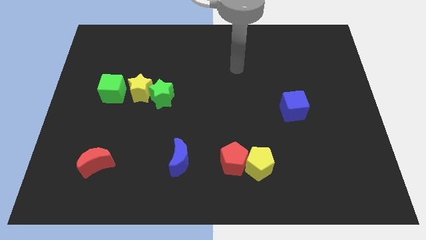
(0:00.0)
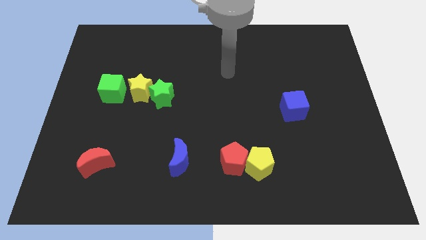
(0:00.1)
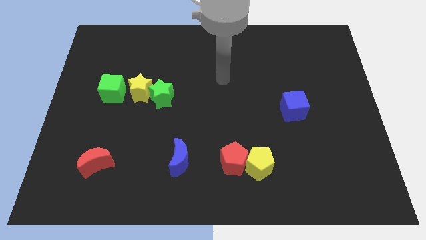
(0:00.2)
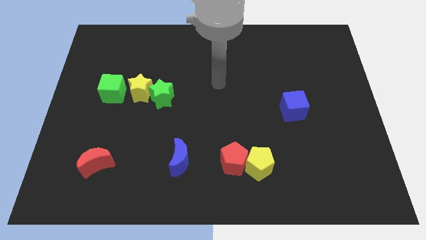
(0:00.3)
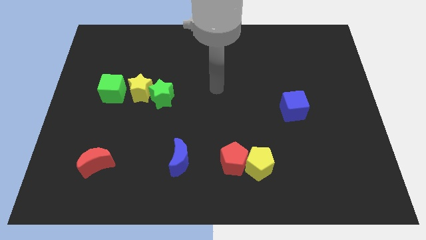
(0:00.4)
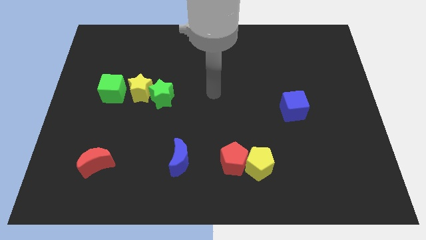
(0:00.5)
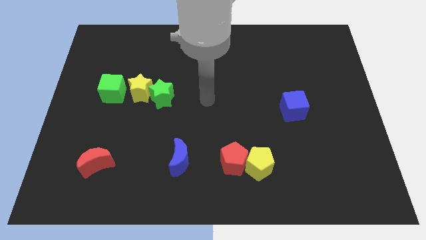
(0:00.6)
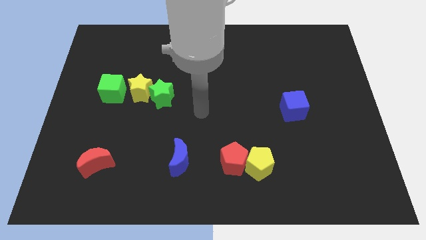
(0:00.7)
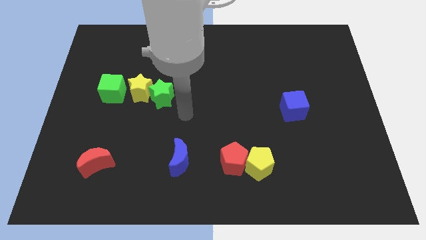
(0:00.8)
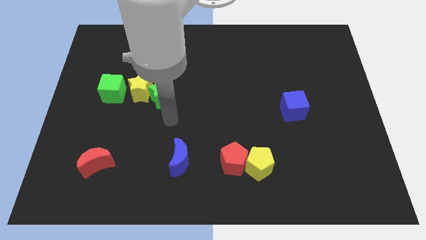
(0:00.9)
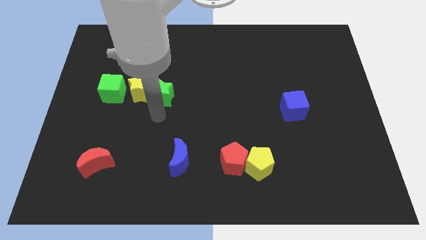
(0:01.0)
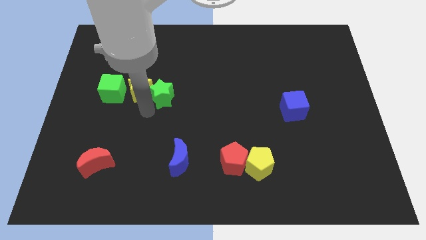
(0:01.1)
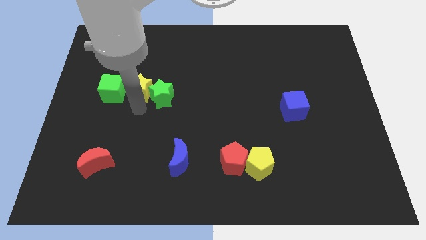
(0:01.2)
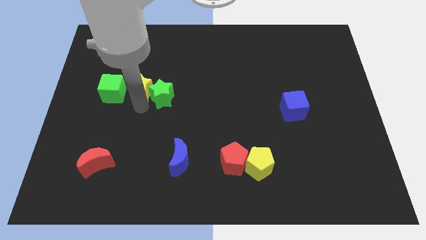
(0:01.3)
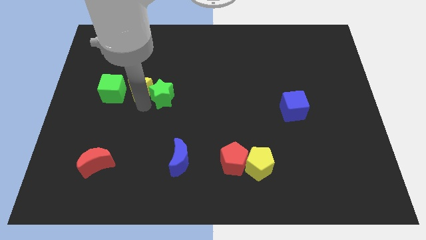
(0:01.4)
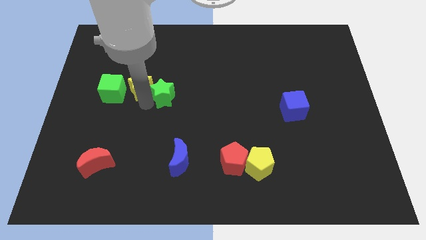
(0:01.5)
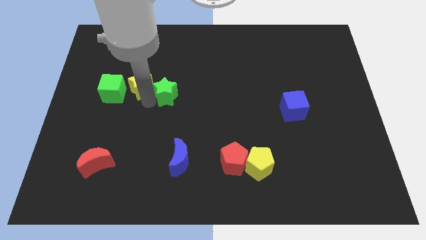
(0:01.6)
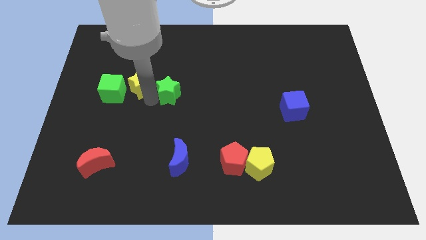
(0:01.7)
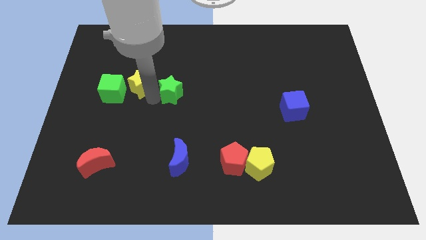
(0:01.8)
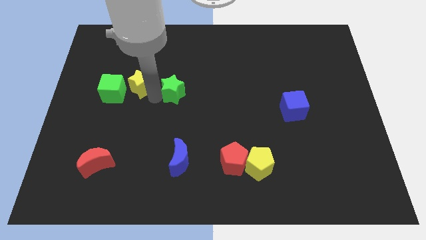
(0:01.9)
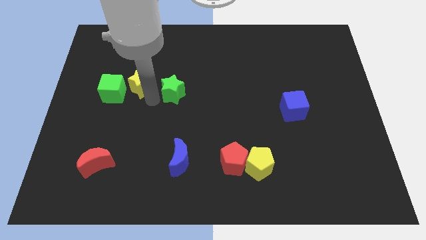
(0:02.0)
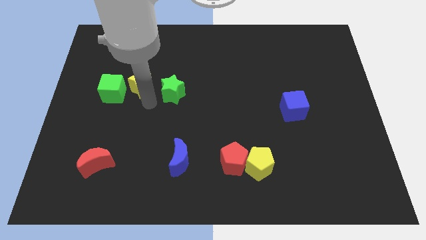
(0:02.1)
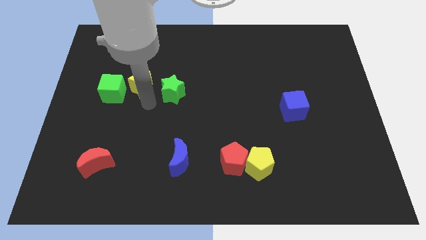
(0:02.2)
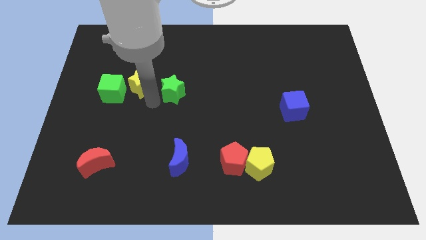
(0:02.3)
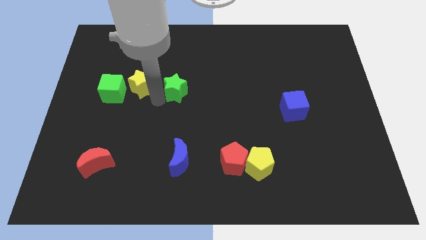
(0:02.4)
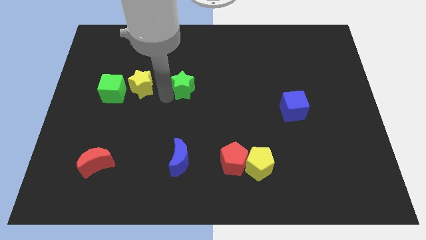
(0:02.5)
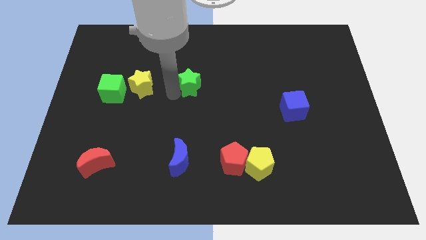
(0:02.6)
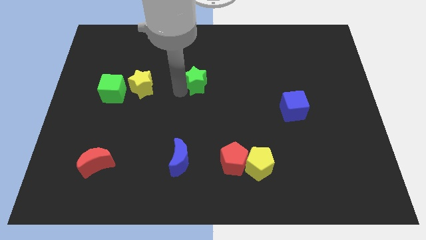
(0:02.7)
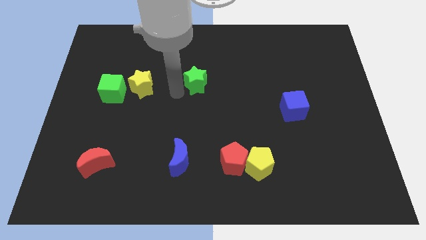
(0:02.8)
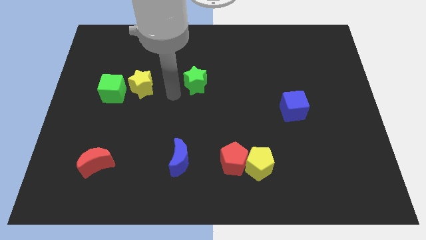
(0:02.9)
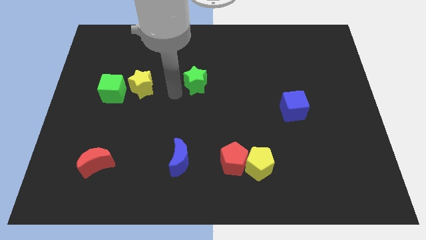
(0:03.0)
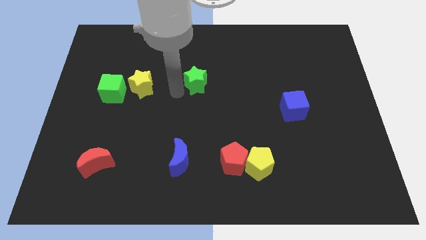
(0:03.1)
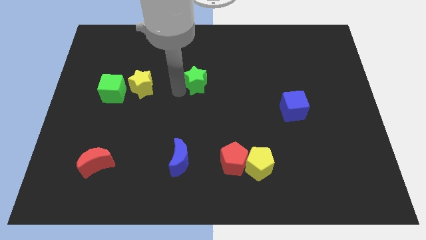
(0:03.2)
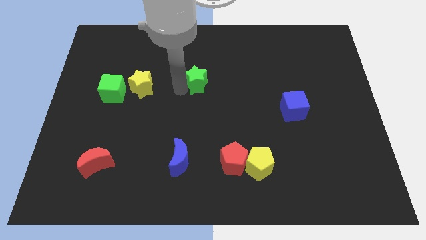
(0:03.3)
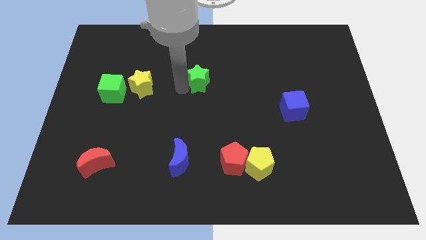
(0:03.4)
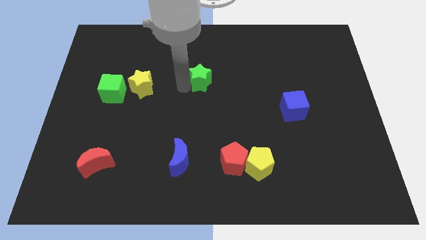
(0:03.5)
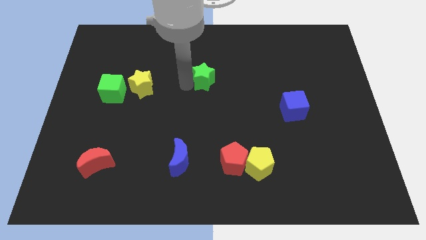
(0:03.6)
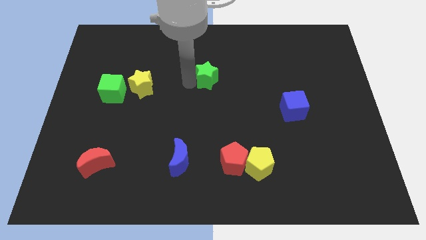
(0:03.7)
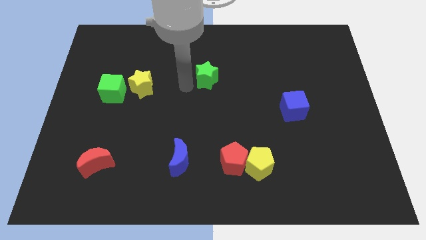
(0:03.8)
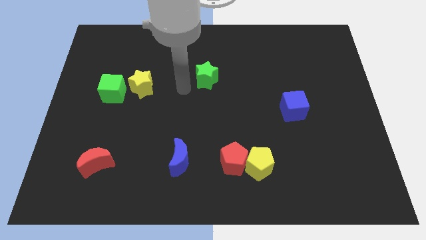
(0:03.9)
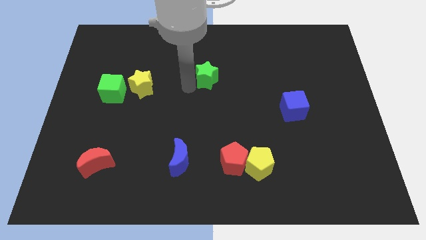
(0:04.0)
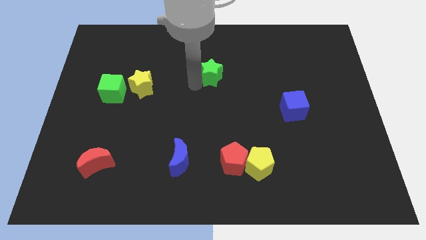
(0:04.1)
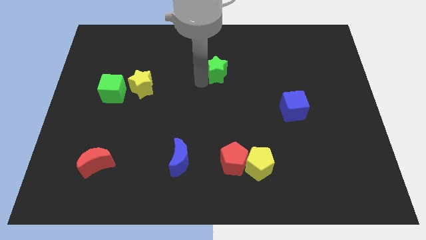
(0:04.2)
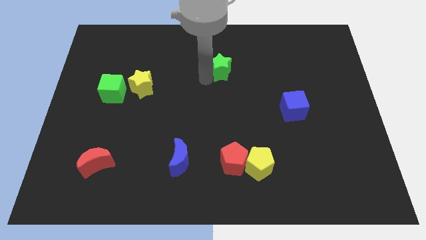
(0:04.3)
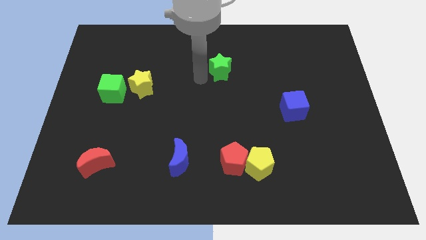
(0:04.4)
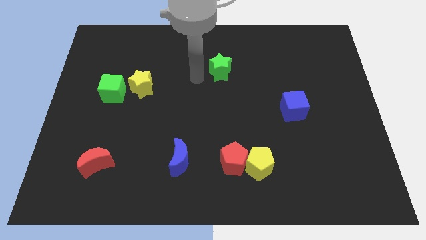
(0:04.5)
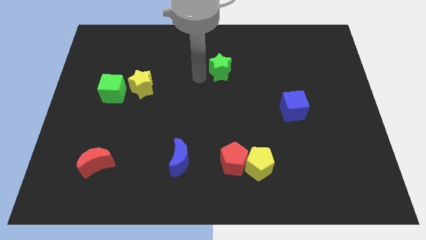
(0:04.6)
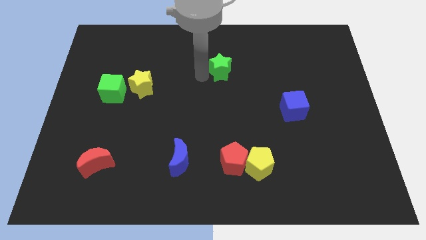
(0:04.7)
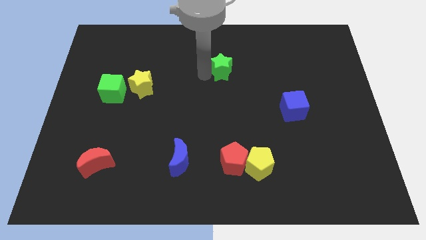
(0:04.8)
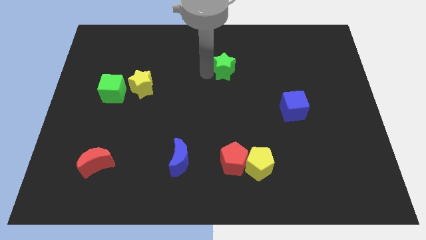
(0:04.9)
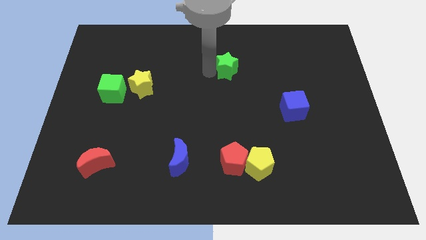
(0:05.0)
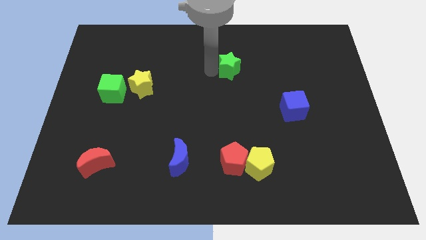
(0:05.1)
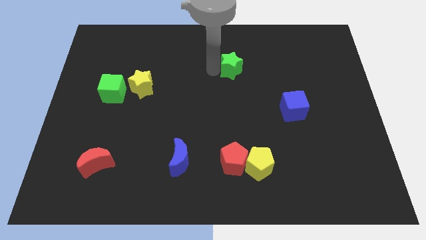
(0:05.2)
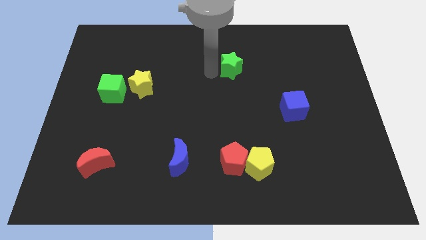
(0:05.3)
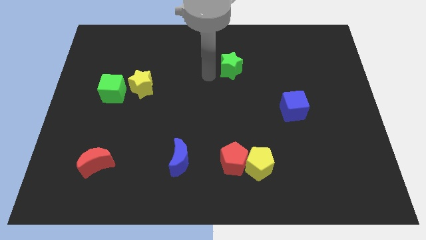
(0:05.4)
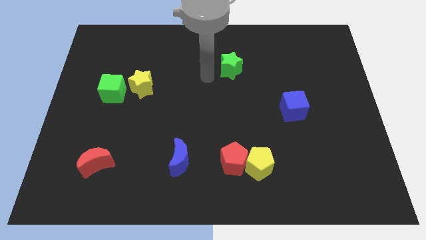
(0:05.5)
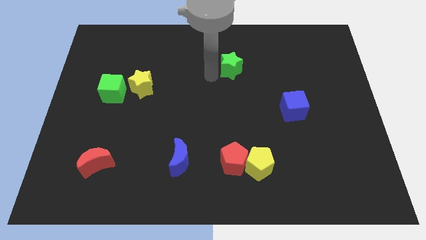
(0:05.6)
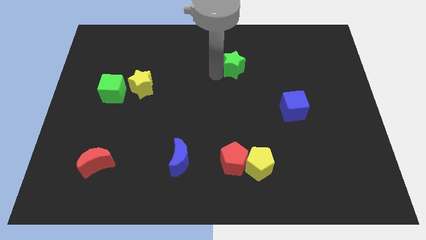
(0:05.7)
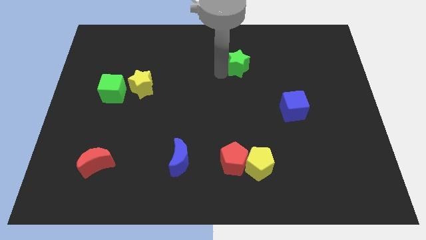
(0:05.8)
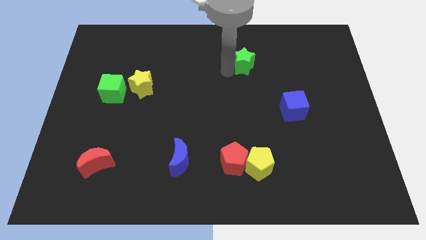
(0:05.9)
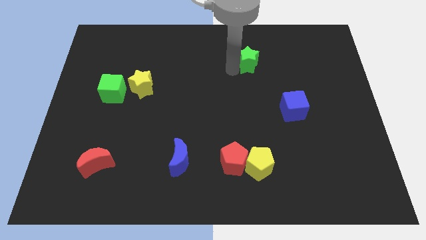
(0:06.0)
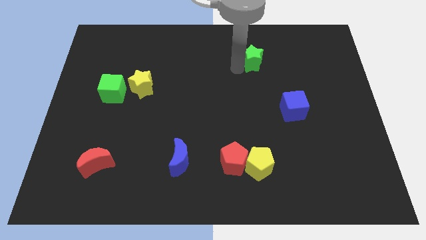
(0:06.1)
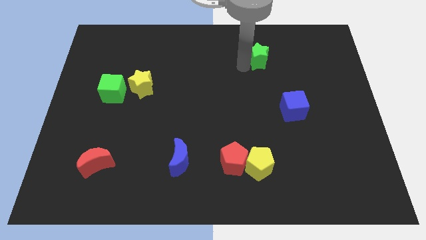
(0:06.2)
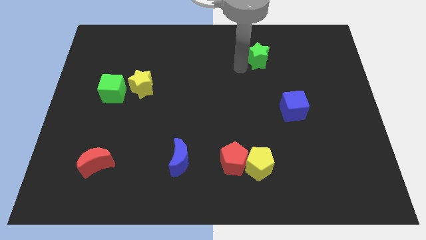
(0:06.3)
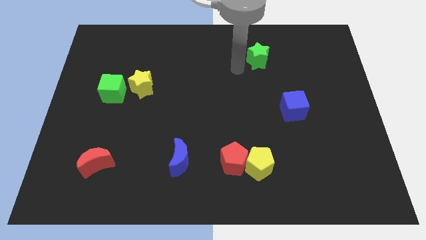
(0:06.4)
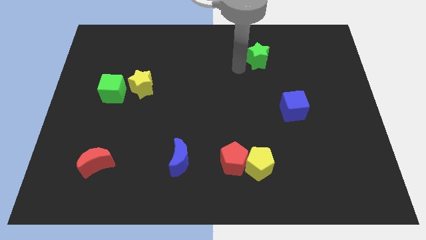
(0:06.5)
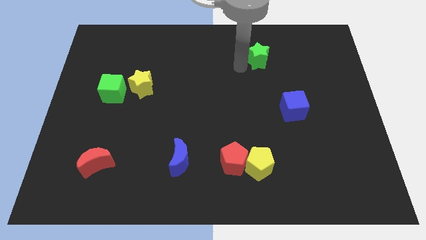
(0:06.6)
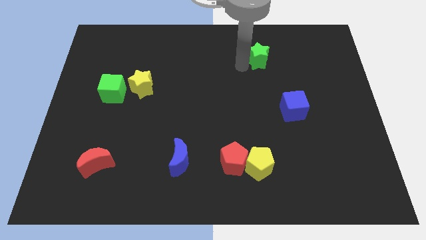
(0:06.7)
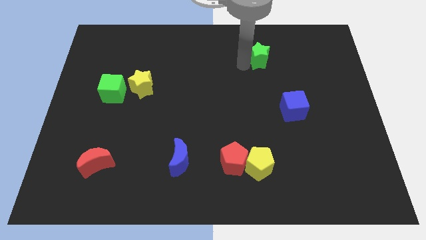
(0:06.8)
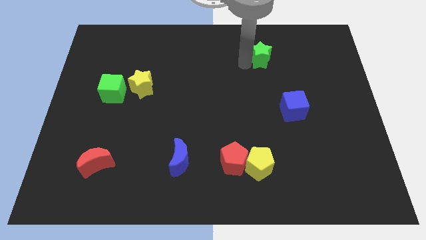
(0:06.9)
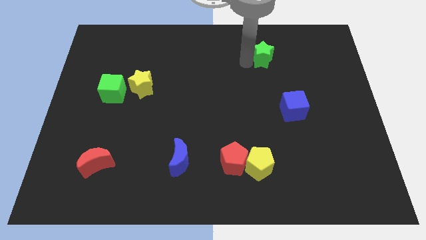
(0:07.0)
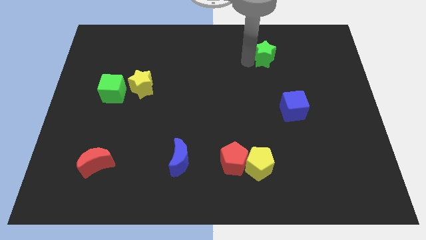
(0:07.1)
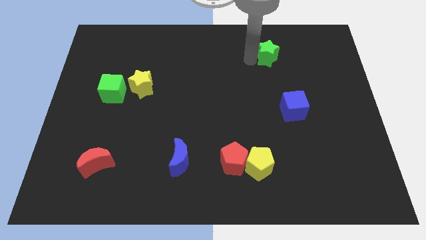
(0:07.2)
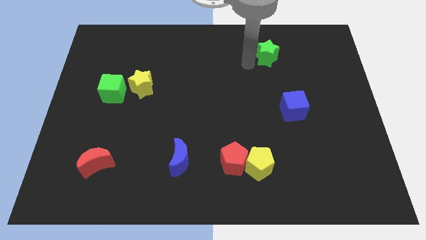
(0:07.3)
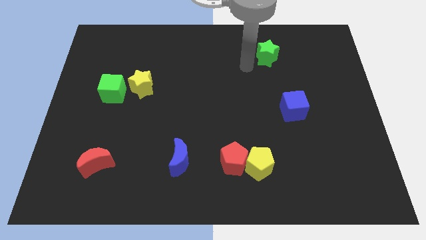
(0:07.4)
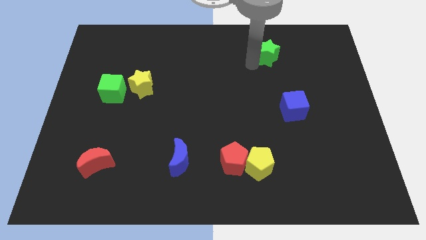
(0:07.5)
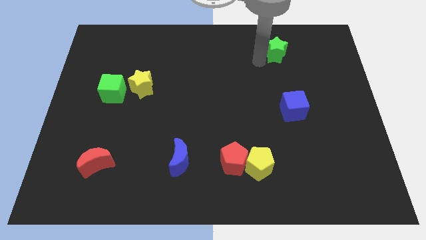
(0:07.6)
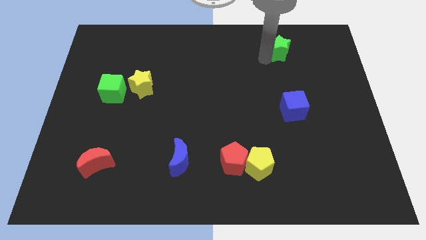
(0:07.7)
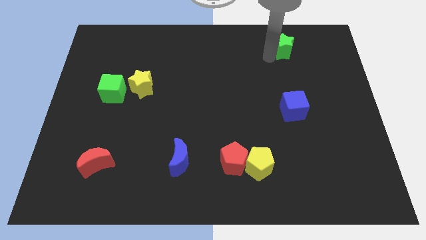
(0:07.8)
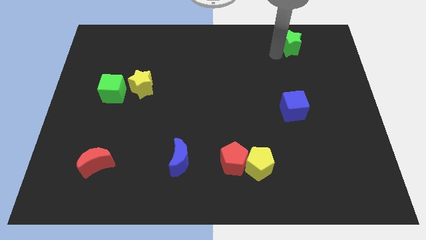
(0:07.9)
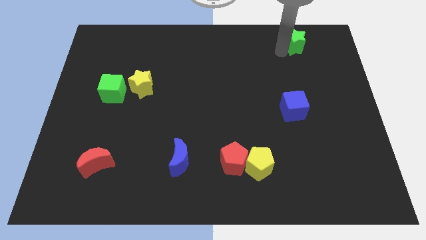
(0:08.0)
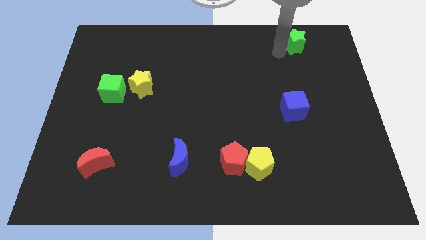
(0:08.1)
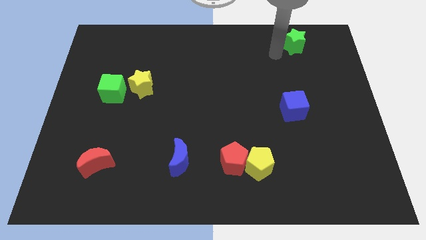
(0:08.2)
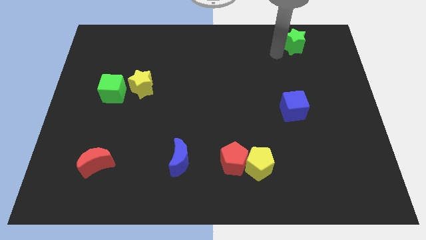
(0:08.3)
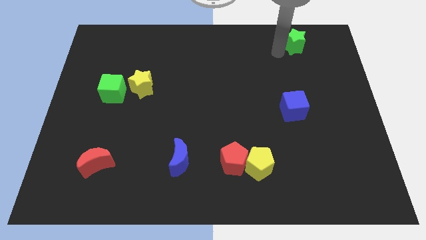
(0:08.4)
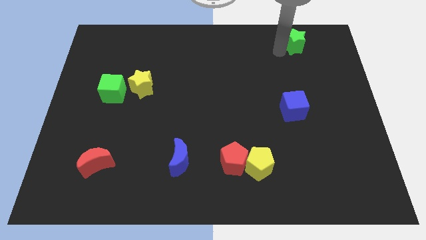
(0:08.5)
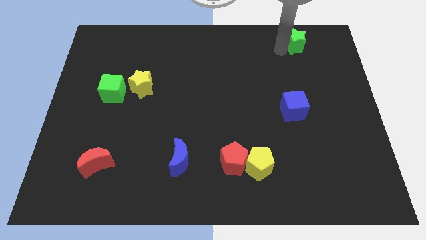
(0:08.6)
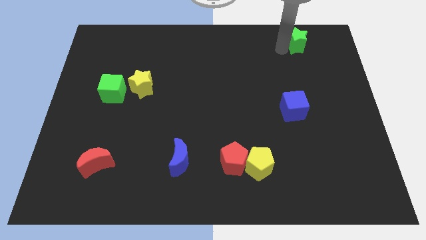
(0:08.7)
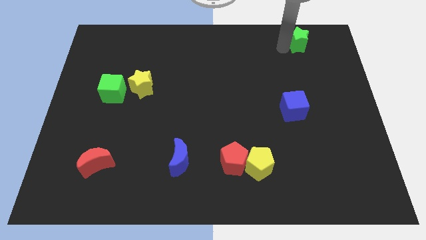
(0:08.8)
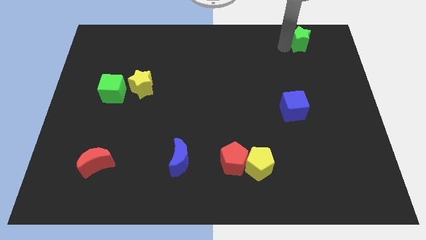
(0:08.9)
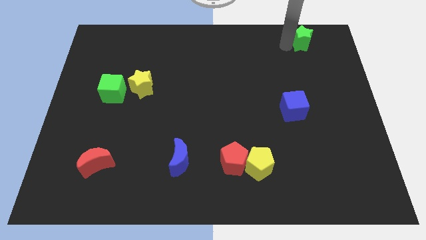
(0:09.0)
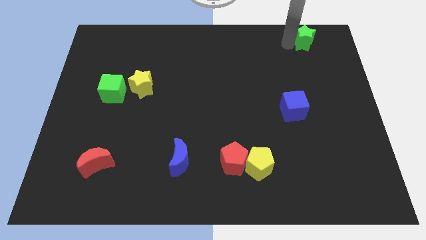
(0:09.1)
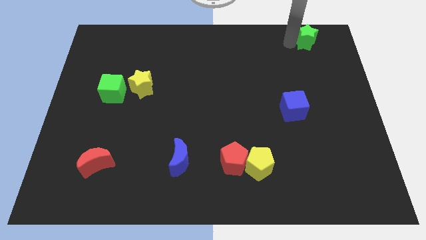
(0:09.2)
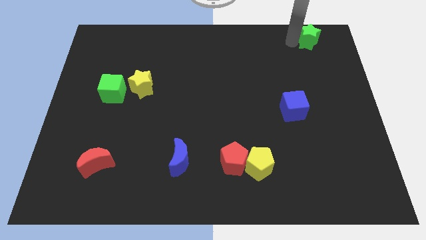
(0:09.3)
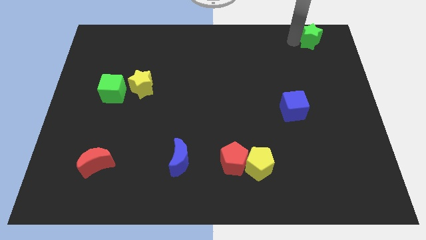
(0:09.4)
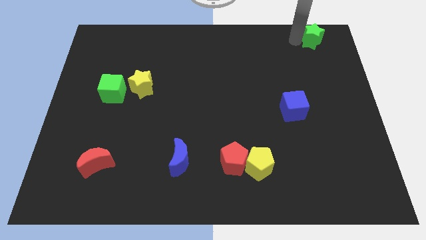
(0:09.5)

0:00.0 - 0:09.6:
push the green star to the top right of the board
